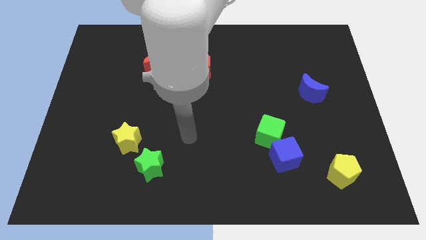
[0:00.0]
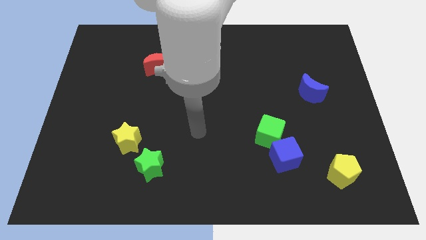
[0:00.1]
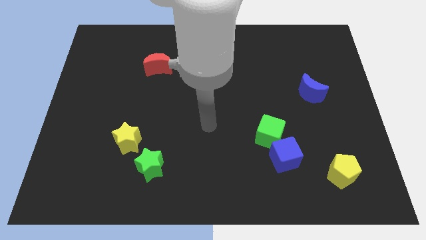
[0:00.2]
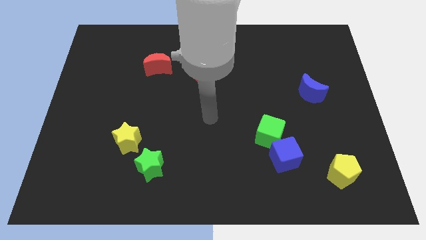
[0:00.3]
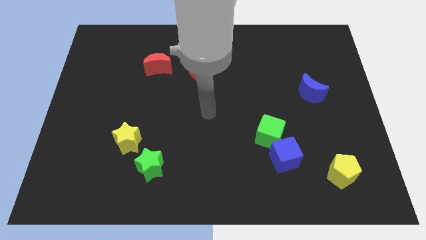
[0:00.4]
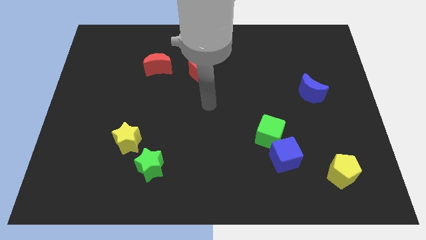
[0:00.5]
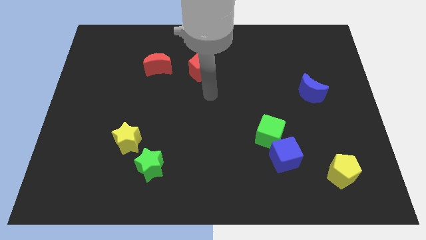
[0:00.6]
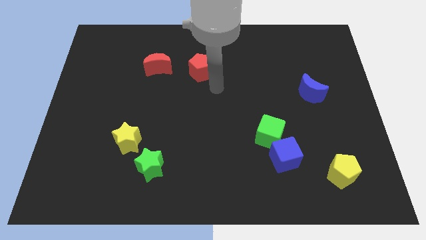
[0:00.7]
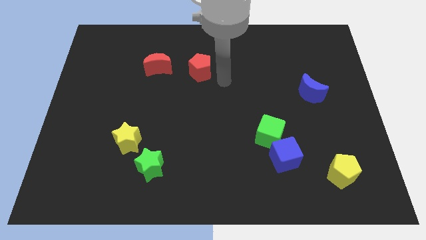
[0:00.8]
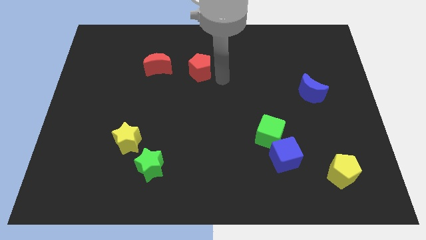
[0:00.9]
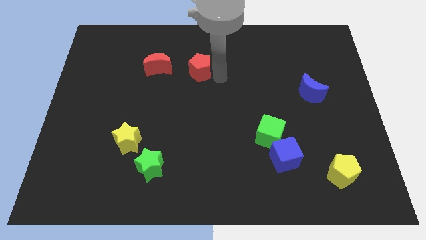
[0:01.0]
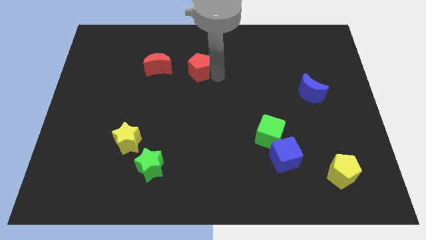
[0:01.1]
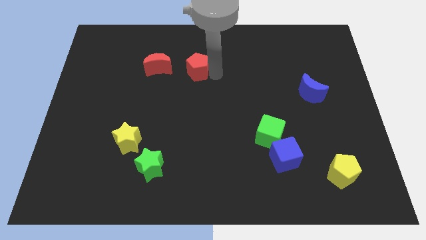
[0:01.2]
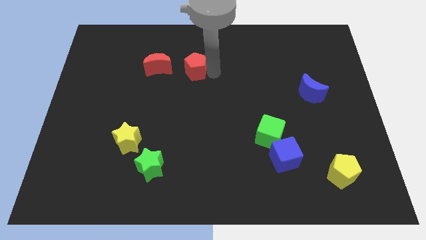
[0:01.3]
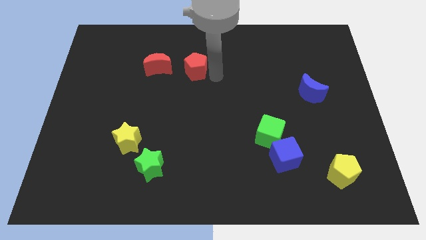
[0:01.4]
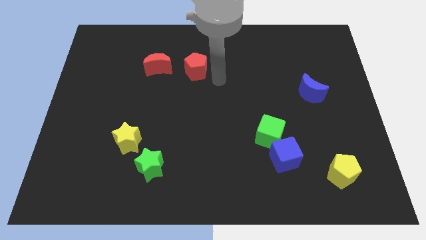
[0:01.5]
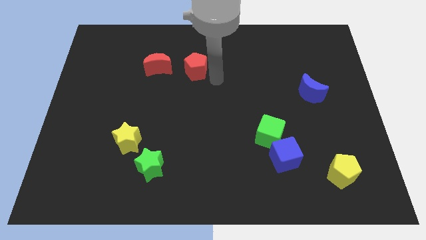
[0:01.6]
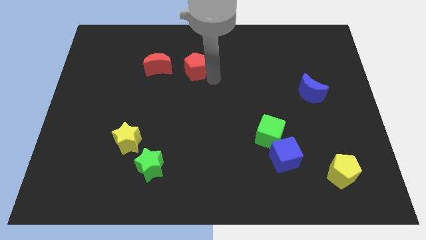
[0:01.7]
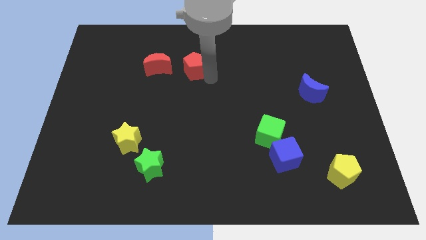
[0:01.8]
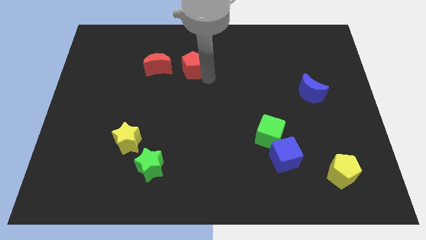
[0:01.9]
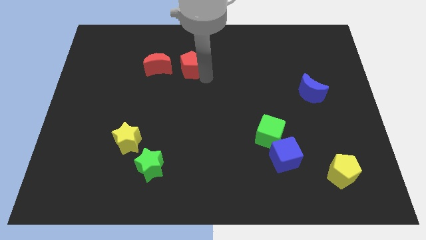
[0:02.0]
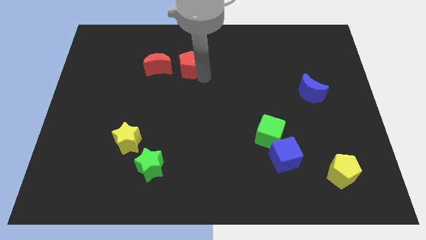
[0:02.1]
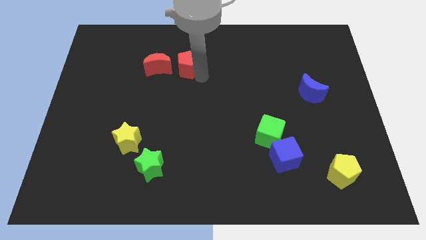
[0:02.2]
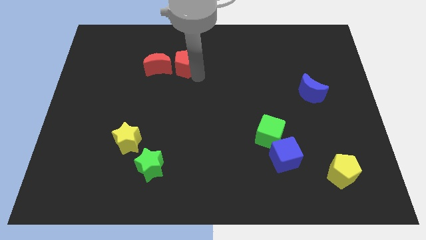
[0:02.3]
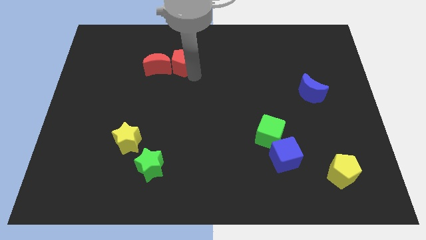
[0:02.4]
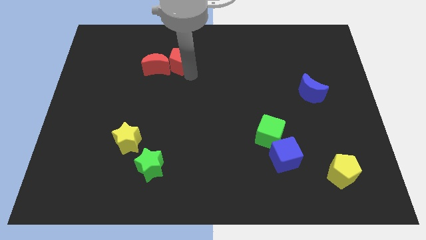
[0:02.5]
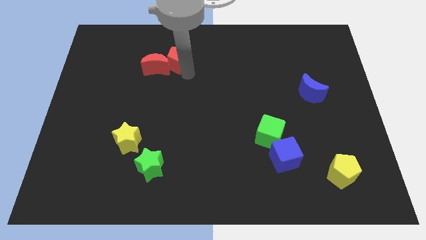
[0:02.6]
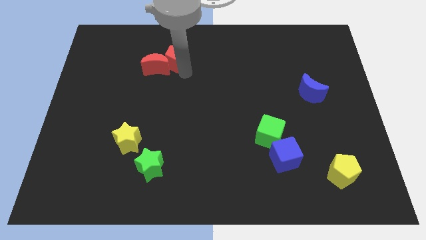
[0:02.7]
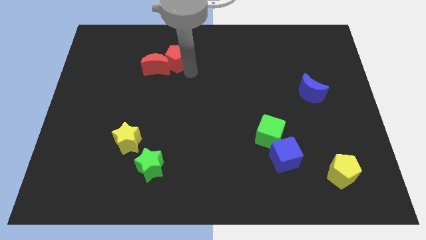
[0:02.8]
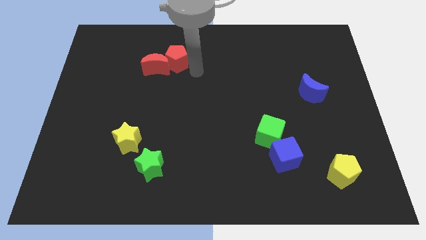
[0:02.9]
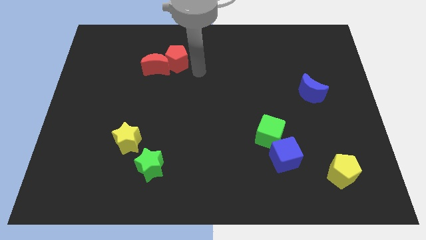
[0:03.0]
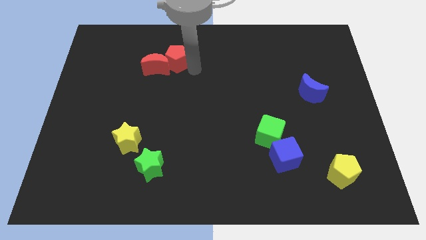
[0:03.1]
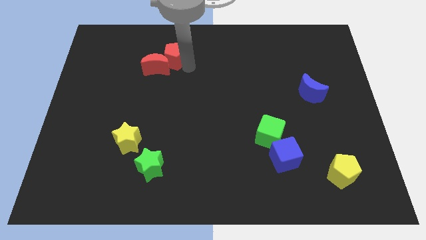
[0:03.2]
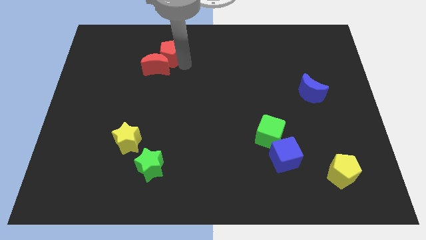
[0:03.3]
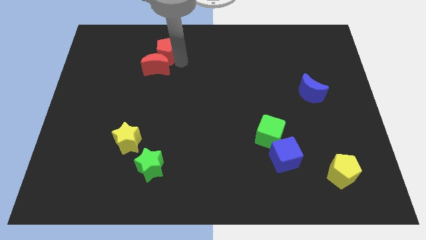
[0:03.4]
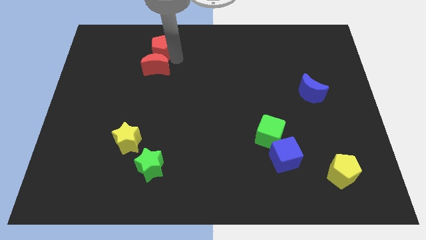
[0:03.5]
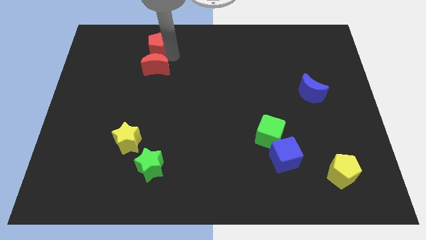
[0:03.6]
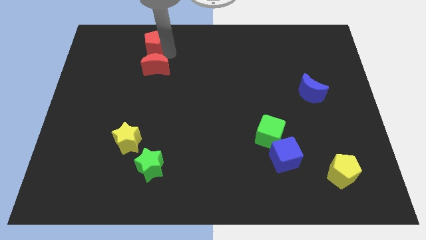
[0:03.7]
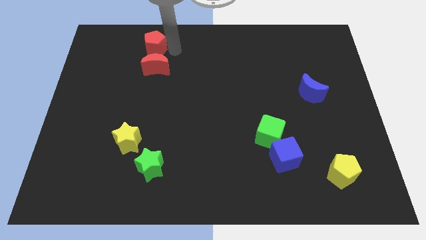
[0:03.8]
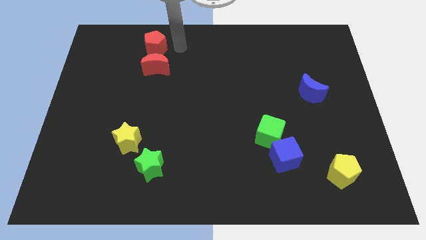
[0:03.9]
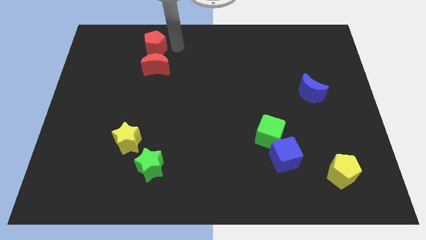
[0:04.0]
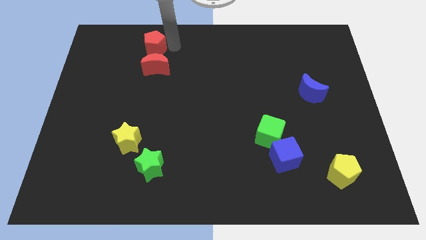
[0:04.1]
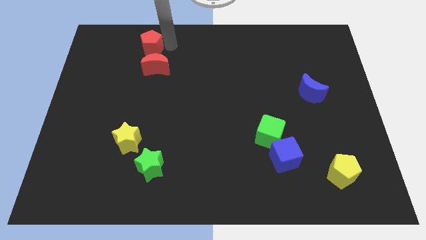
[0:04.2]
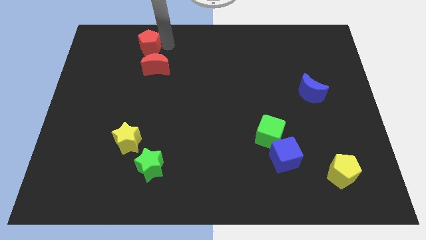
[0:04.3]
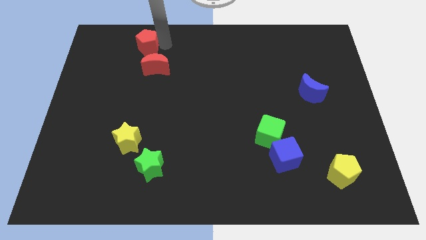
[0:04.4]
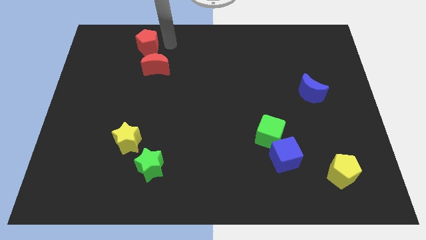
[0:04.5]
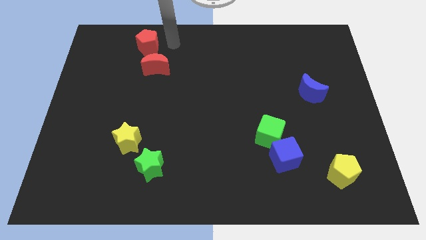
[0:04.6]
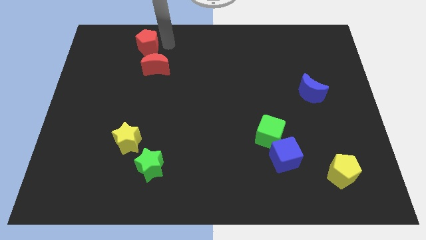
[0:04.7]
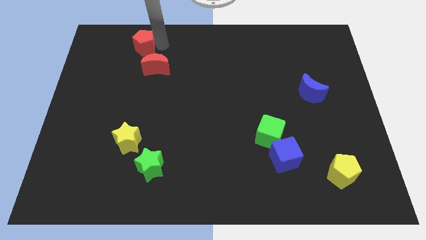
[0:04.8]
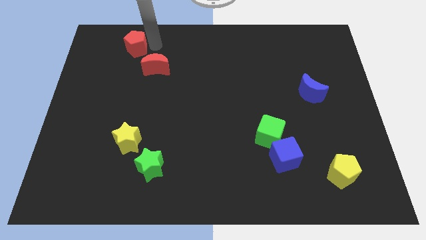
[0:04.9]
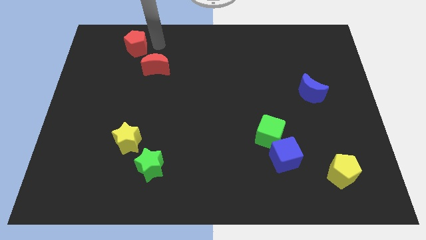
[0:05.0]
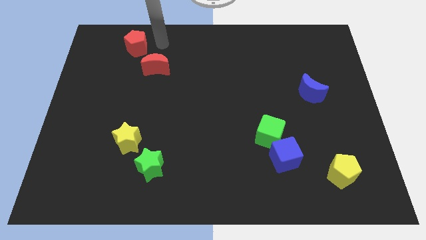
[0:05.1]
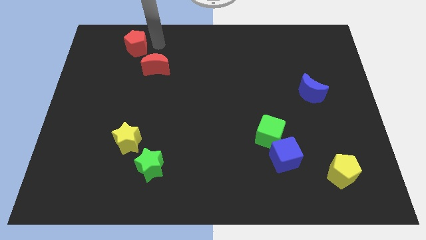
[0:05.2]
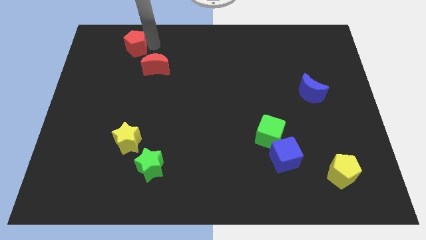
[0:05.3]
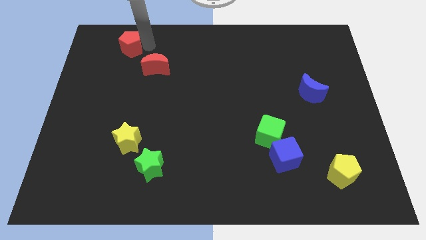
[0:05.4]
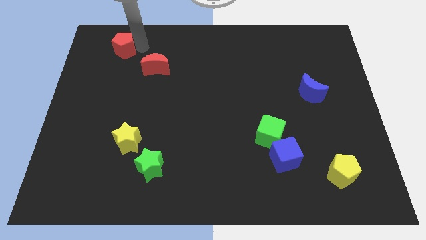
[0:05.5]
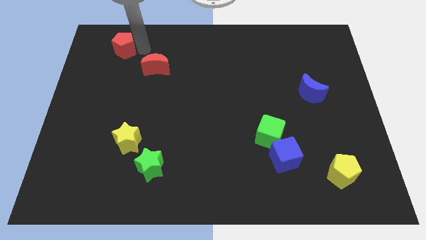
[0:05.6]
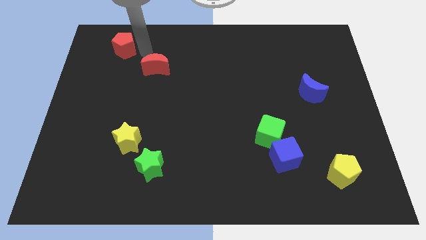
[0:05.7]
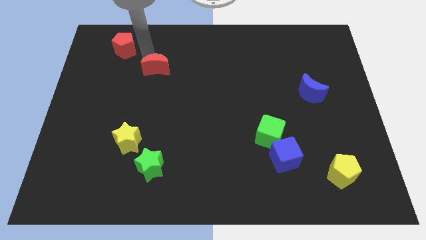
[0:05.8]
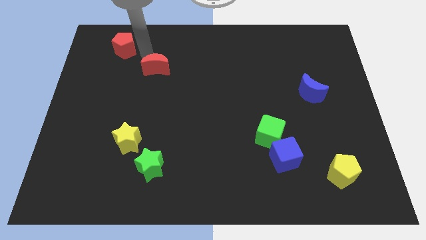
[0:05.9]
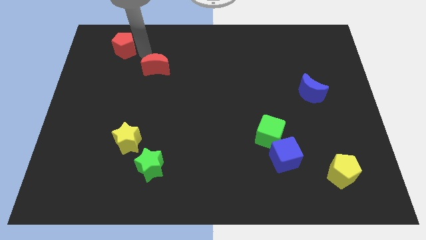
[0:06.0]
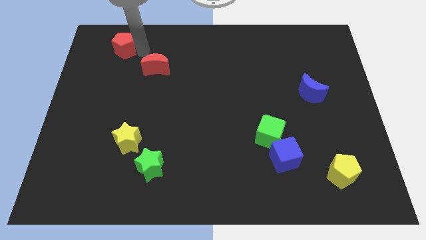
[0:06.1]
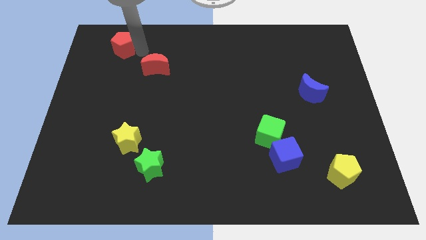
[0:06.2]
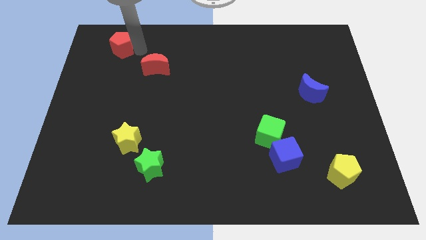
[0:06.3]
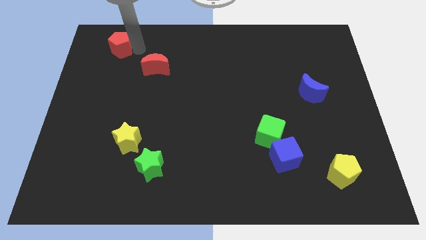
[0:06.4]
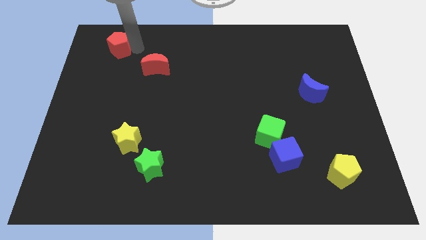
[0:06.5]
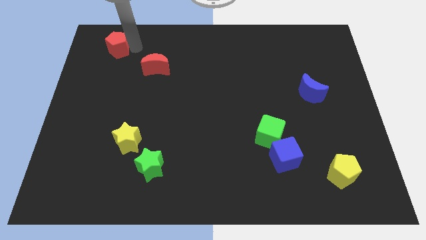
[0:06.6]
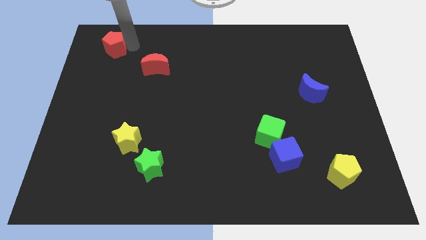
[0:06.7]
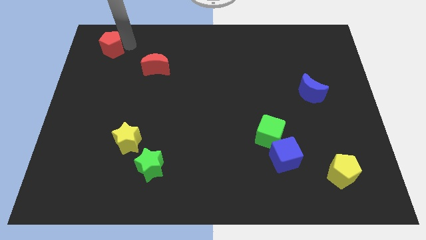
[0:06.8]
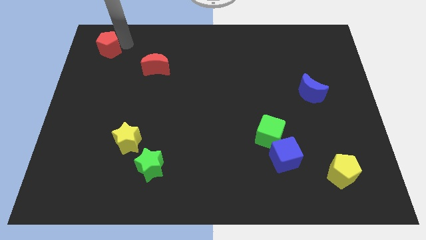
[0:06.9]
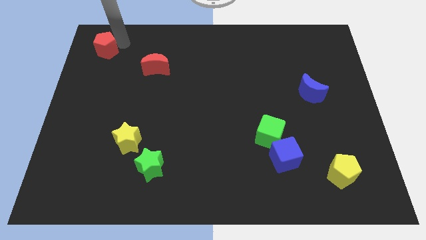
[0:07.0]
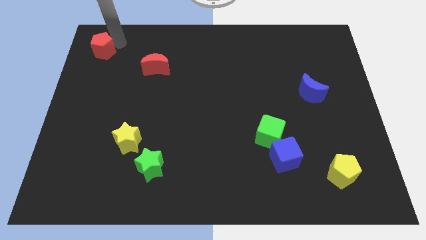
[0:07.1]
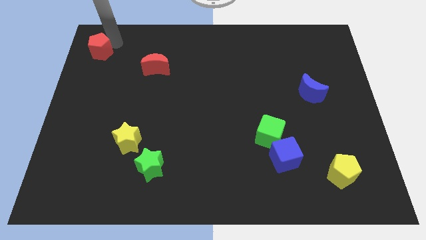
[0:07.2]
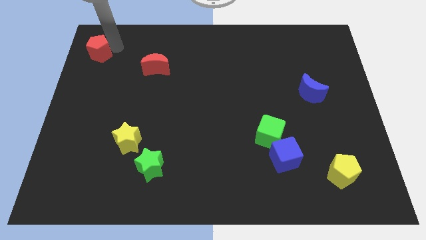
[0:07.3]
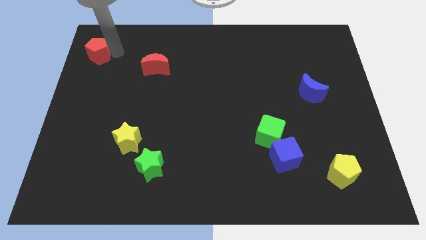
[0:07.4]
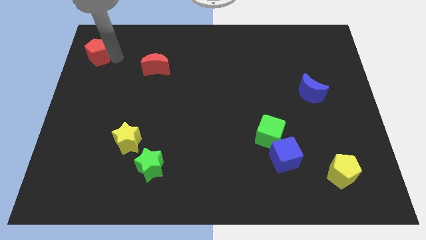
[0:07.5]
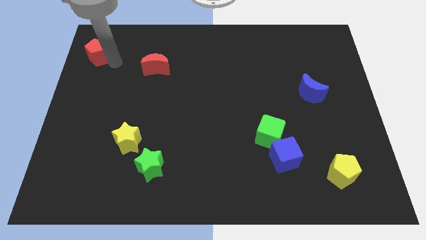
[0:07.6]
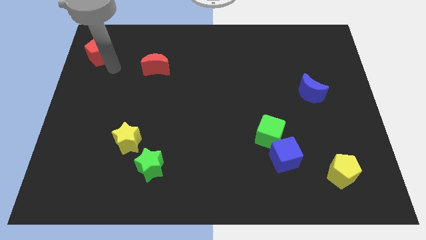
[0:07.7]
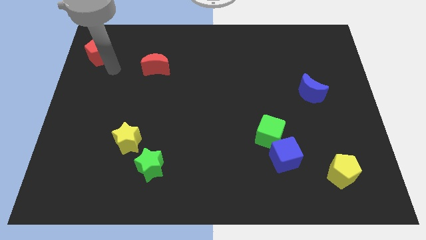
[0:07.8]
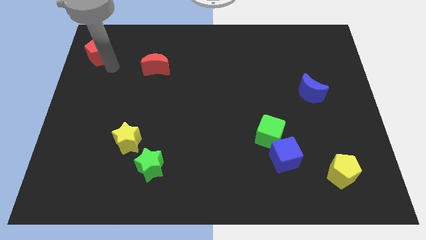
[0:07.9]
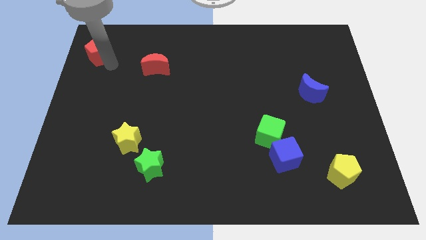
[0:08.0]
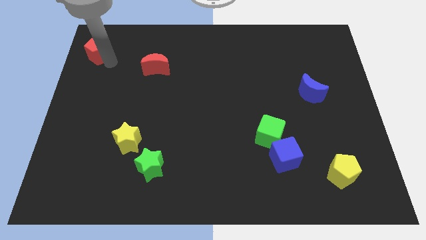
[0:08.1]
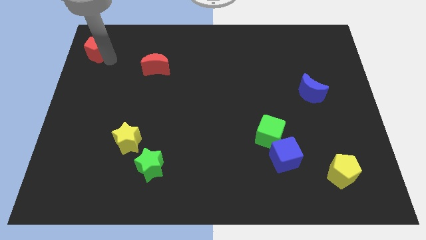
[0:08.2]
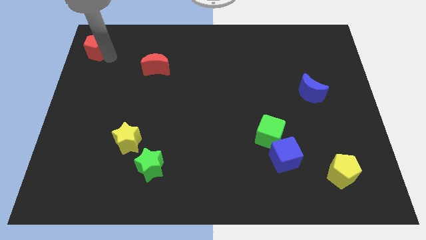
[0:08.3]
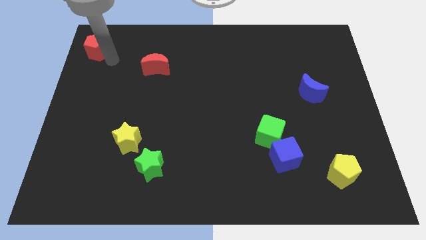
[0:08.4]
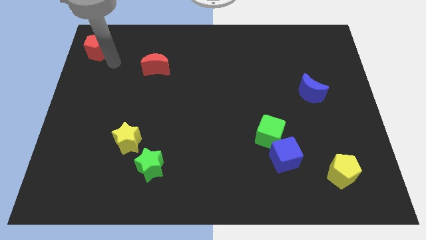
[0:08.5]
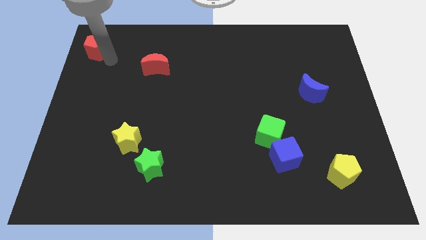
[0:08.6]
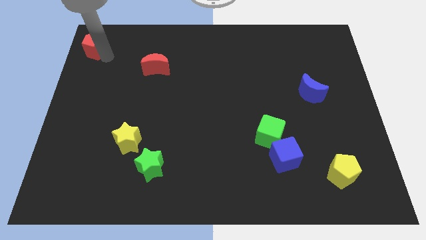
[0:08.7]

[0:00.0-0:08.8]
put the red pentagon to the upper left corner
